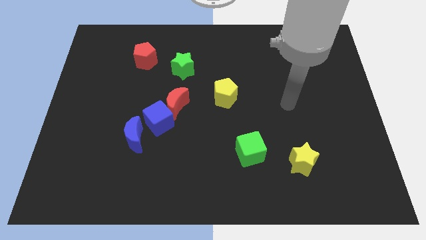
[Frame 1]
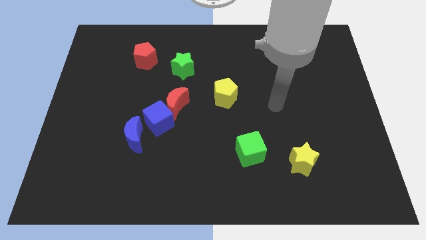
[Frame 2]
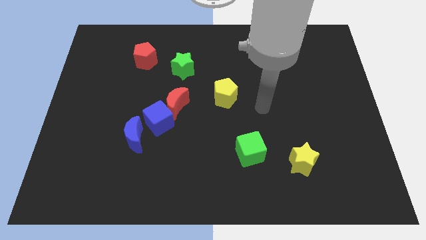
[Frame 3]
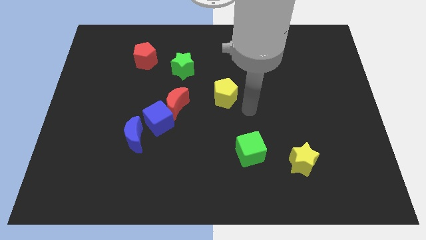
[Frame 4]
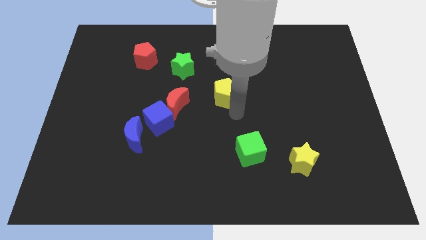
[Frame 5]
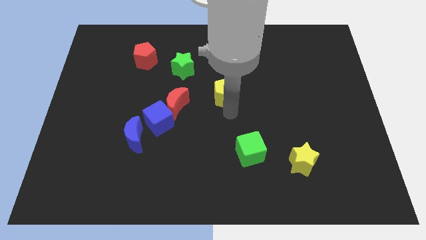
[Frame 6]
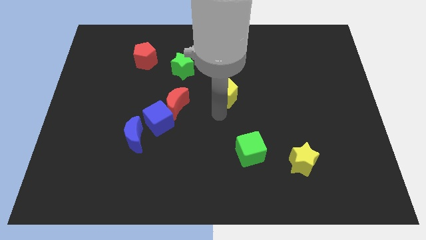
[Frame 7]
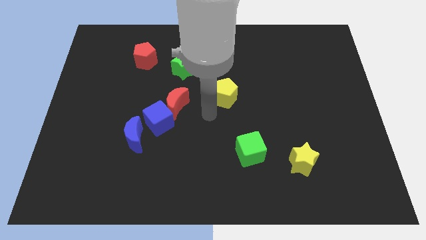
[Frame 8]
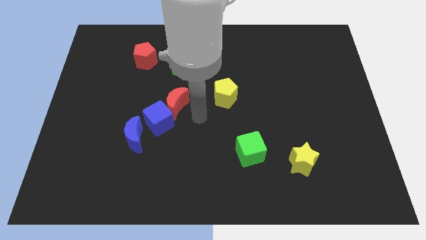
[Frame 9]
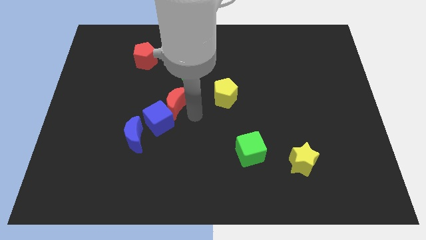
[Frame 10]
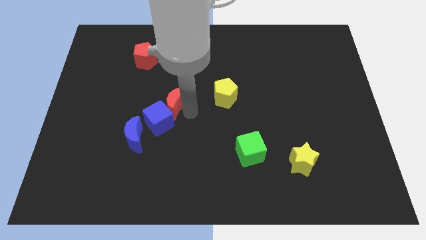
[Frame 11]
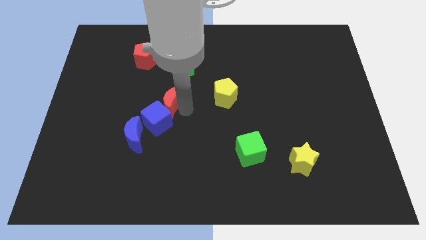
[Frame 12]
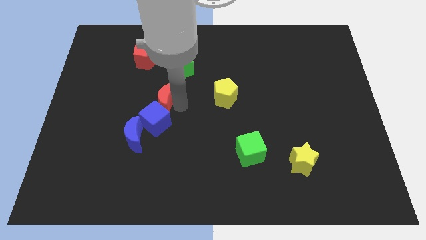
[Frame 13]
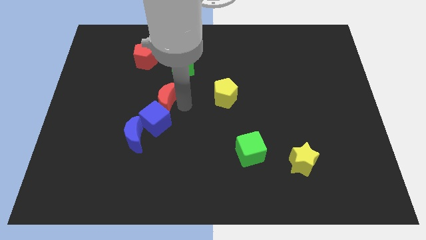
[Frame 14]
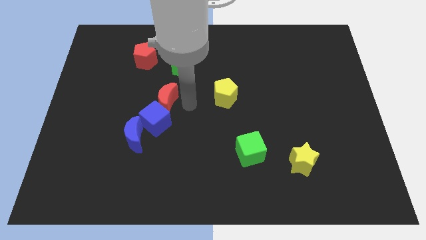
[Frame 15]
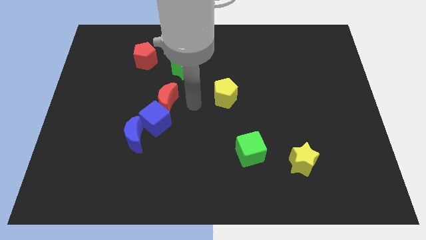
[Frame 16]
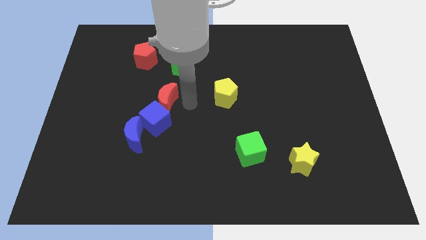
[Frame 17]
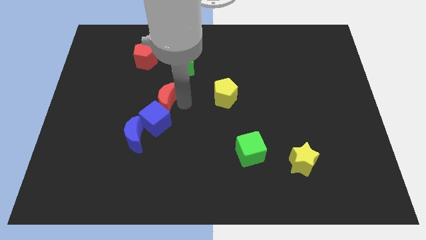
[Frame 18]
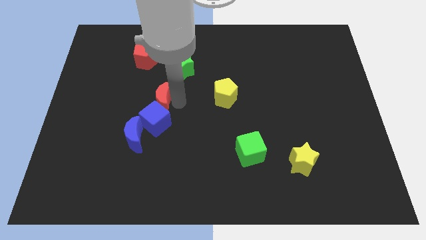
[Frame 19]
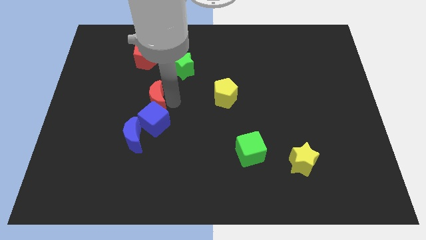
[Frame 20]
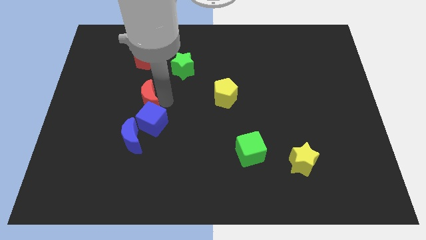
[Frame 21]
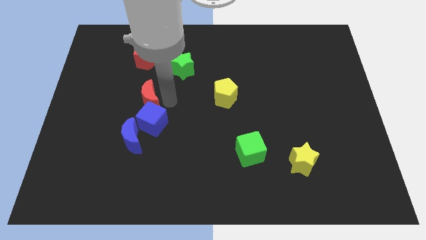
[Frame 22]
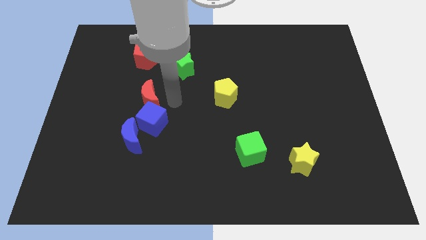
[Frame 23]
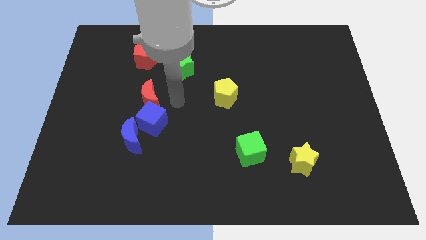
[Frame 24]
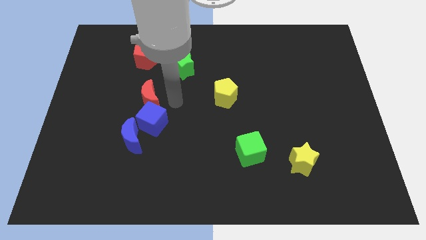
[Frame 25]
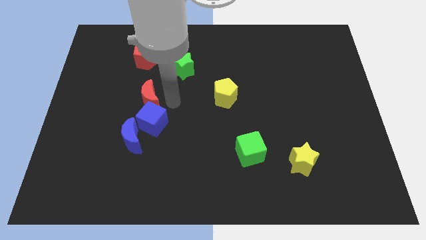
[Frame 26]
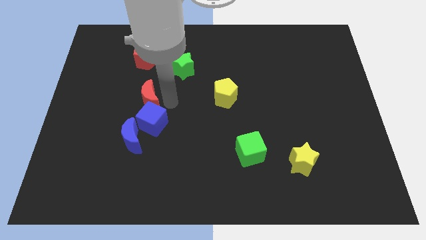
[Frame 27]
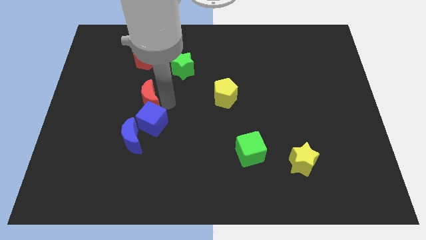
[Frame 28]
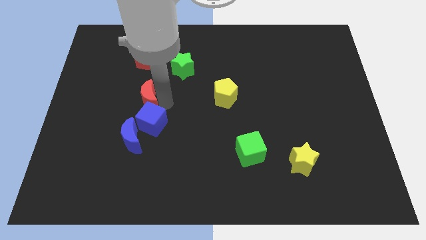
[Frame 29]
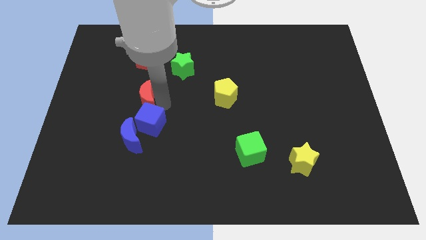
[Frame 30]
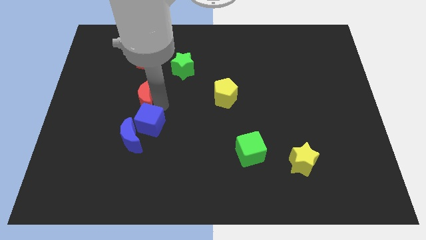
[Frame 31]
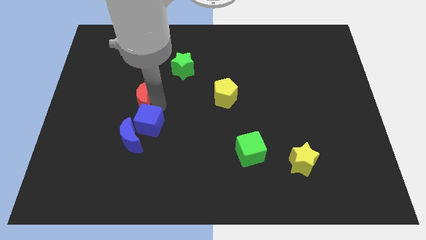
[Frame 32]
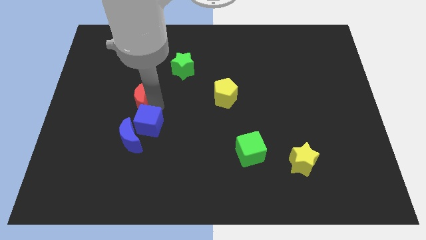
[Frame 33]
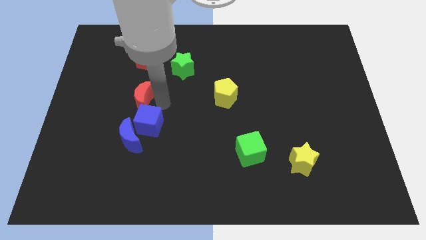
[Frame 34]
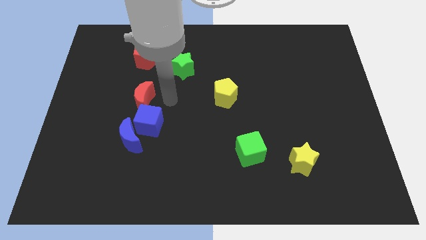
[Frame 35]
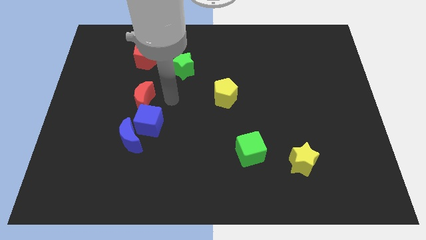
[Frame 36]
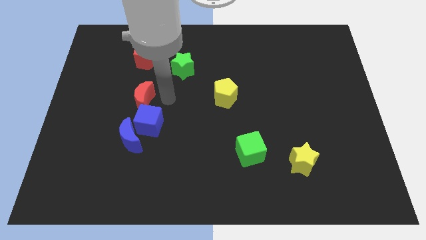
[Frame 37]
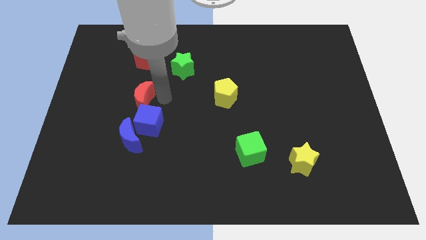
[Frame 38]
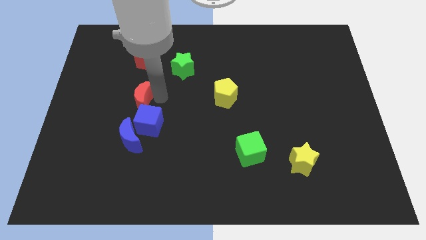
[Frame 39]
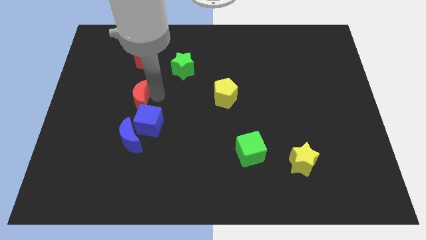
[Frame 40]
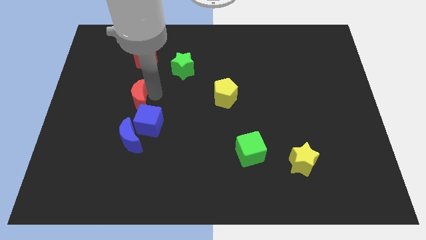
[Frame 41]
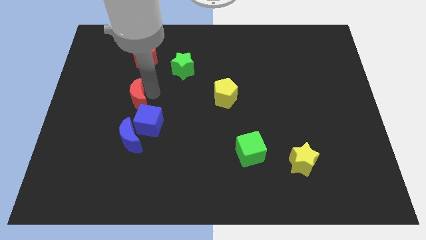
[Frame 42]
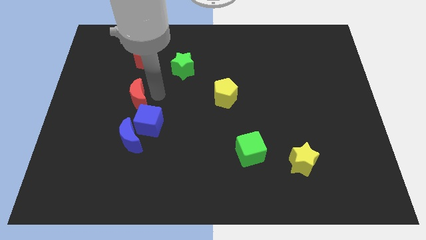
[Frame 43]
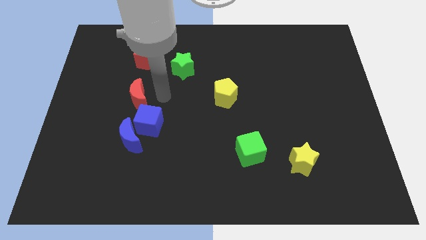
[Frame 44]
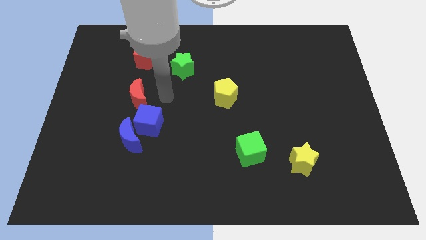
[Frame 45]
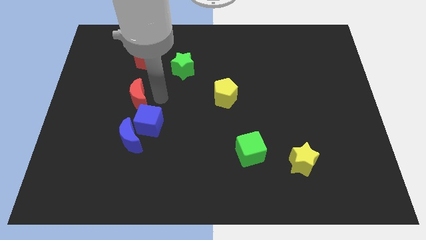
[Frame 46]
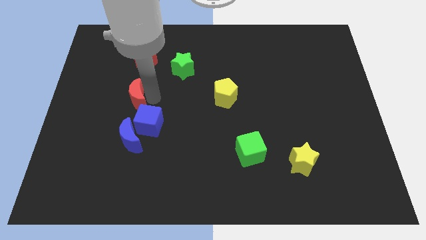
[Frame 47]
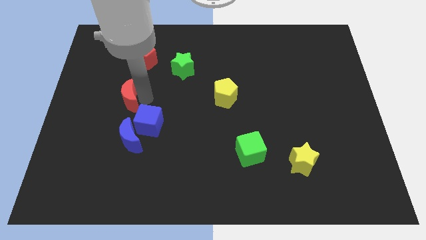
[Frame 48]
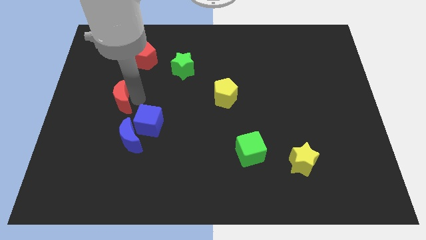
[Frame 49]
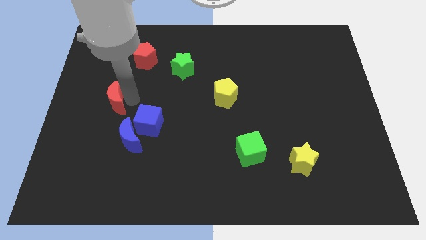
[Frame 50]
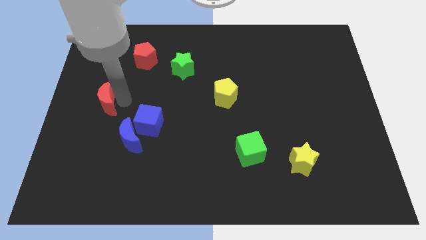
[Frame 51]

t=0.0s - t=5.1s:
put the red moon to the left side
